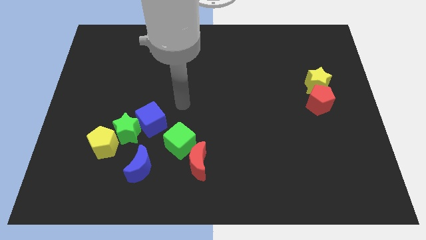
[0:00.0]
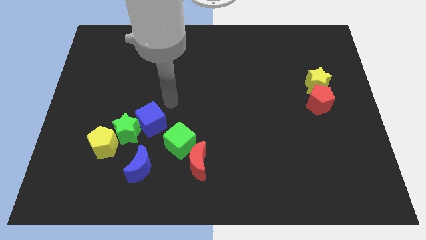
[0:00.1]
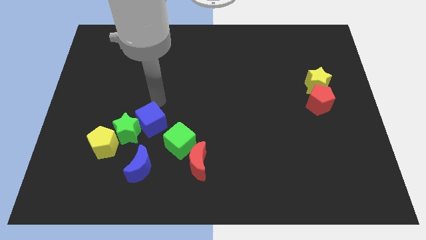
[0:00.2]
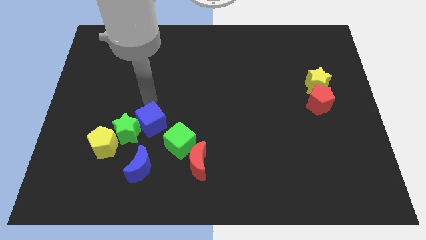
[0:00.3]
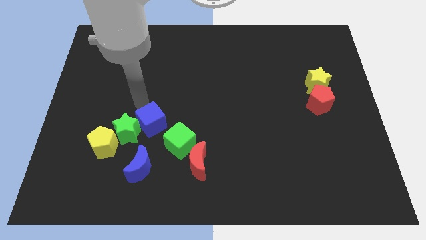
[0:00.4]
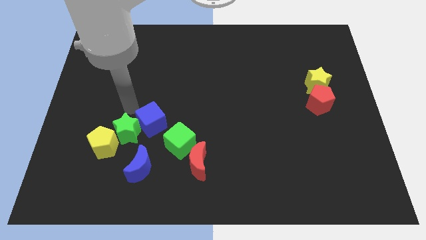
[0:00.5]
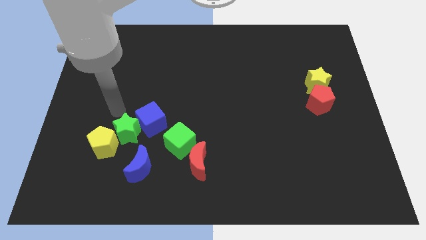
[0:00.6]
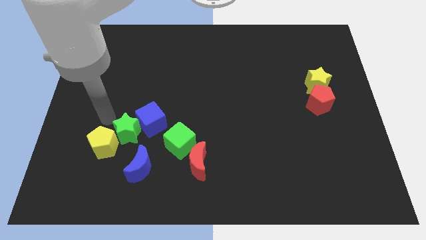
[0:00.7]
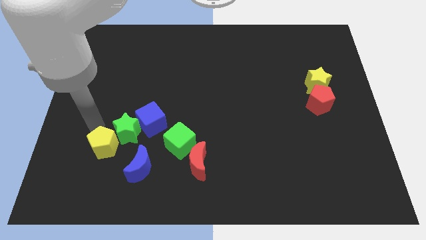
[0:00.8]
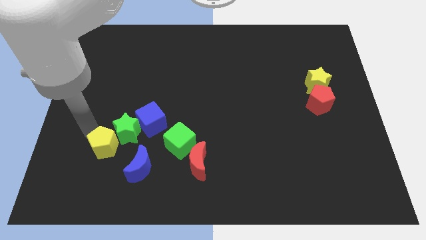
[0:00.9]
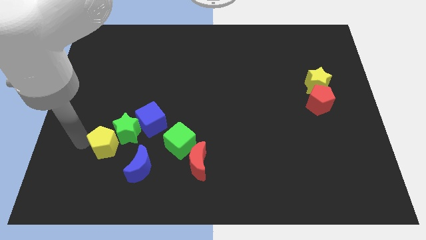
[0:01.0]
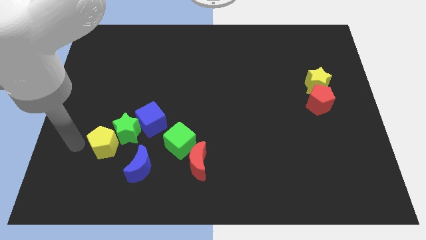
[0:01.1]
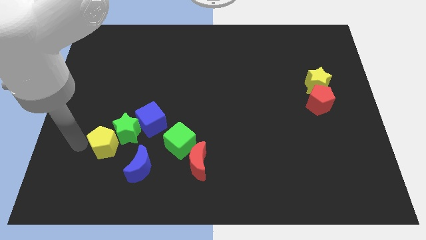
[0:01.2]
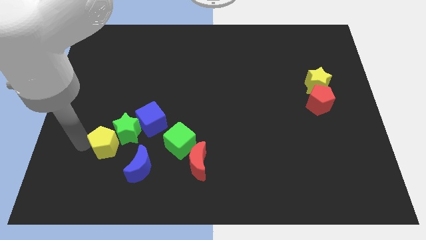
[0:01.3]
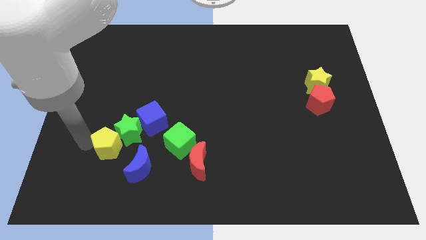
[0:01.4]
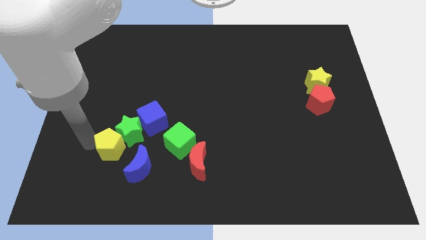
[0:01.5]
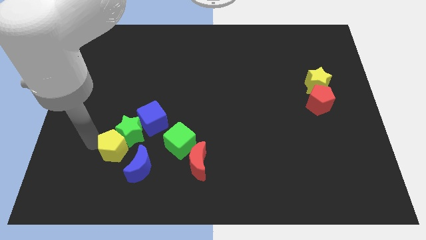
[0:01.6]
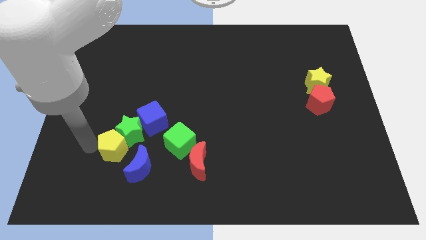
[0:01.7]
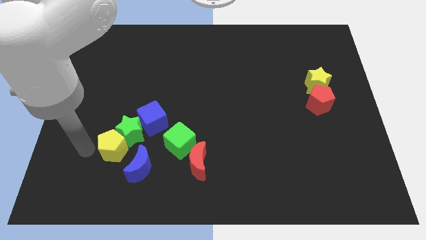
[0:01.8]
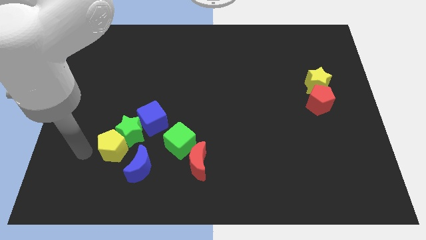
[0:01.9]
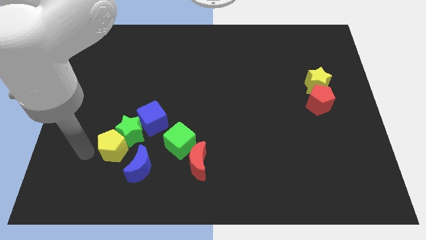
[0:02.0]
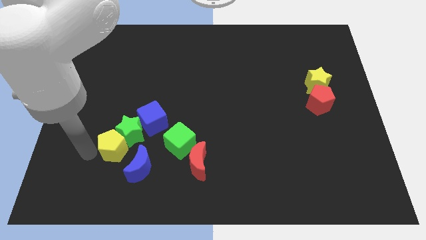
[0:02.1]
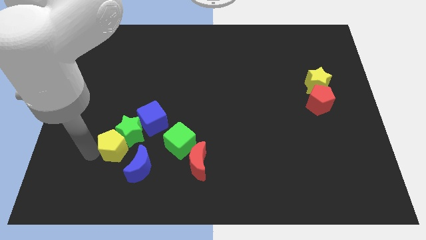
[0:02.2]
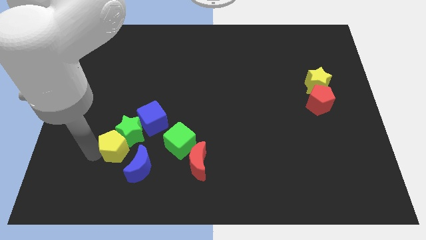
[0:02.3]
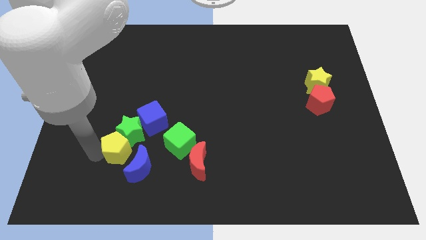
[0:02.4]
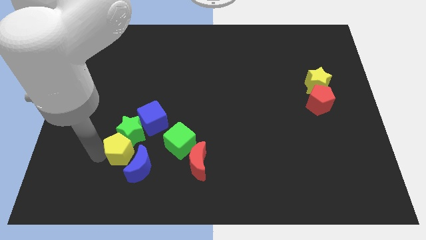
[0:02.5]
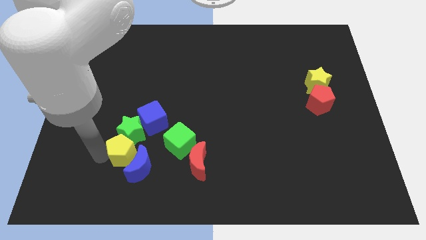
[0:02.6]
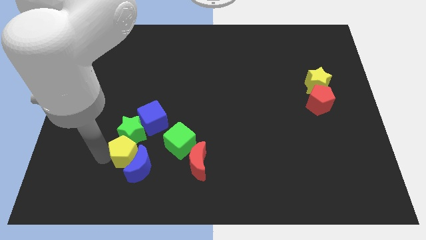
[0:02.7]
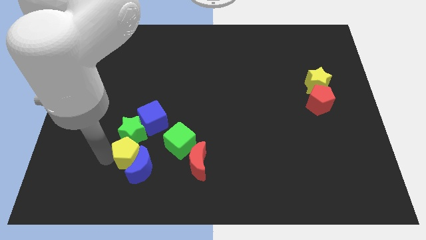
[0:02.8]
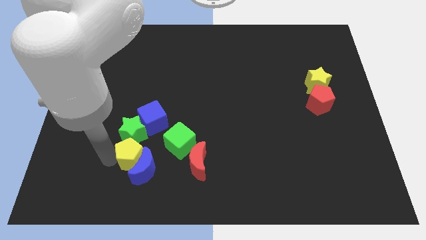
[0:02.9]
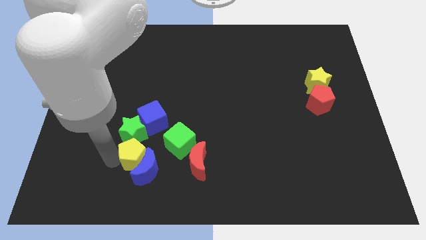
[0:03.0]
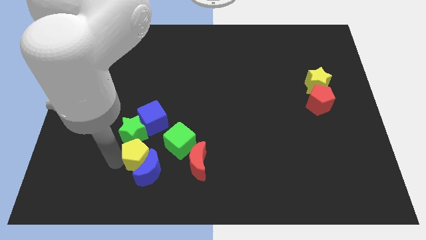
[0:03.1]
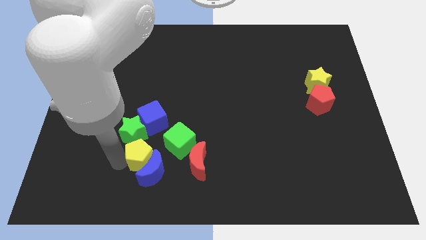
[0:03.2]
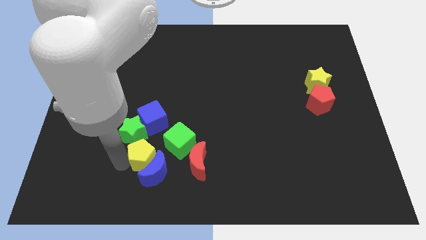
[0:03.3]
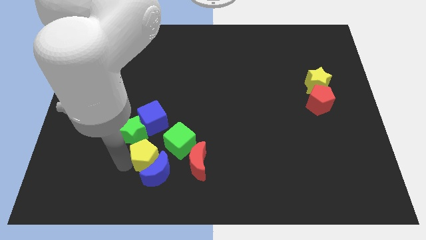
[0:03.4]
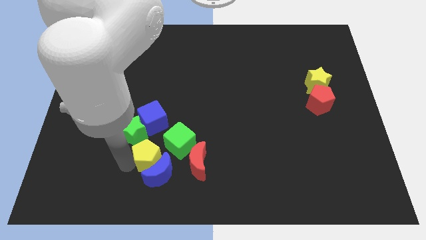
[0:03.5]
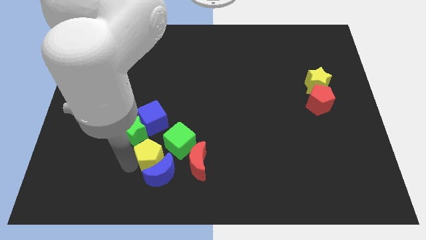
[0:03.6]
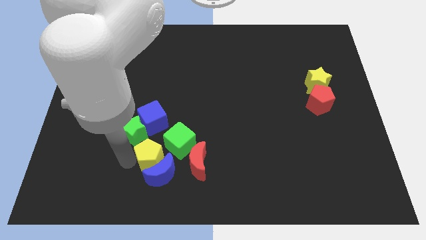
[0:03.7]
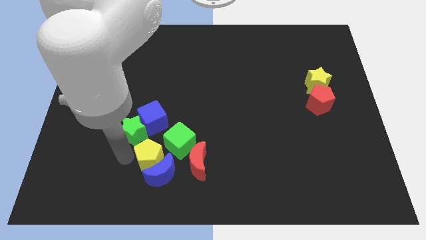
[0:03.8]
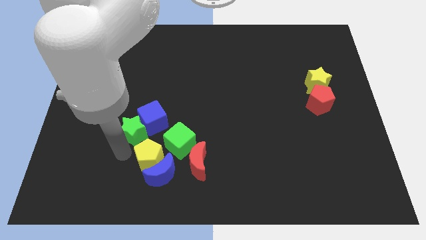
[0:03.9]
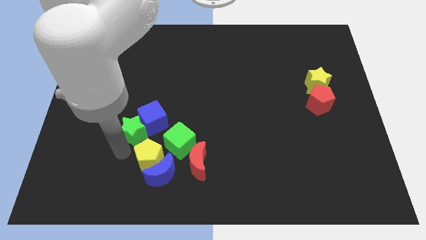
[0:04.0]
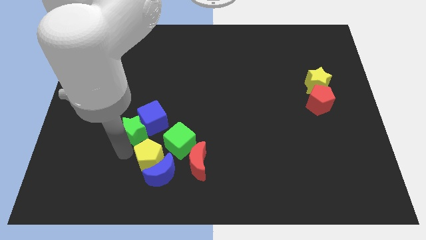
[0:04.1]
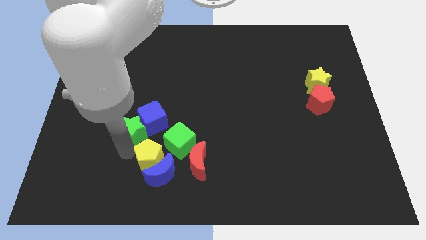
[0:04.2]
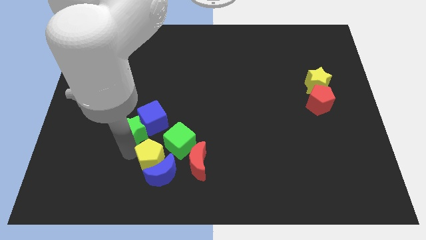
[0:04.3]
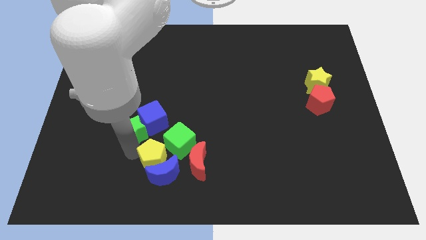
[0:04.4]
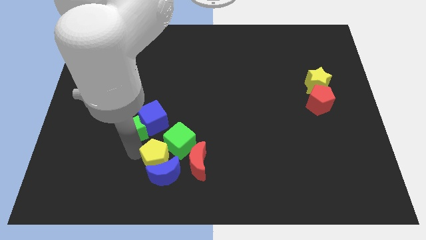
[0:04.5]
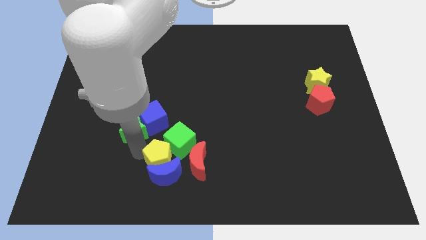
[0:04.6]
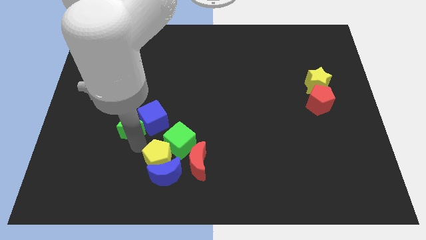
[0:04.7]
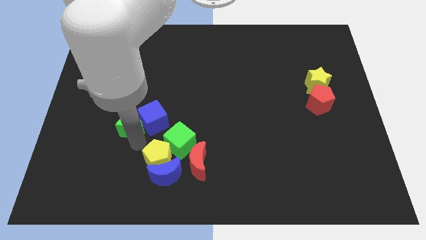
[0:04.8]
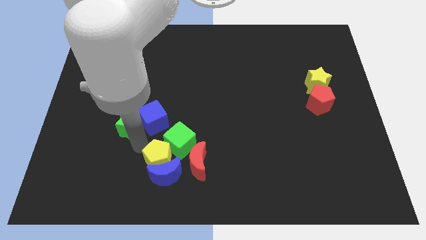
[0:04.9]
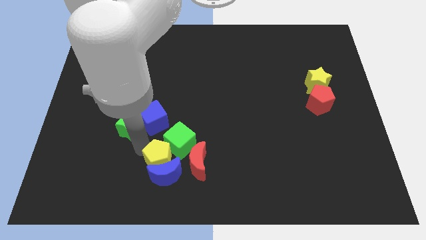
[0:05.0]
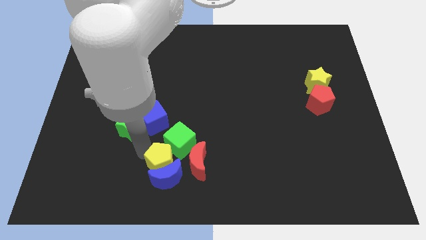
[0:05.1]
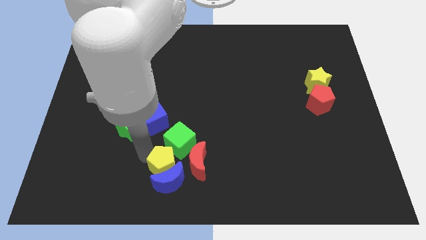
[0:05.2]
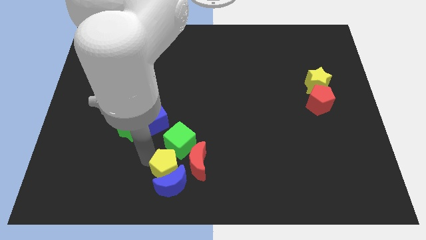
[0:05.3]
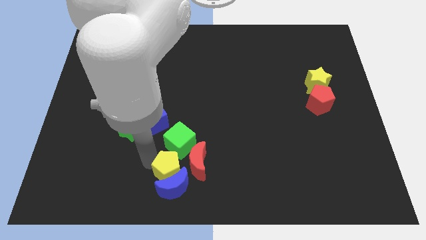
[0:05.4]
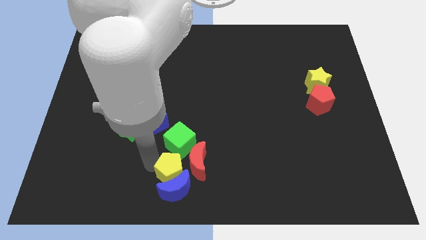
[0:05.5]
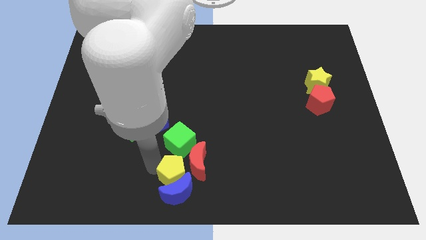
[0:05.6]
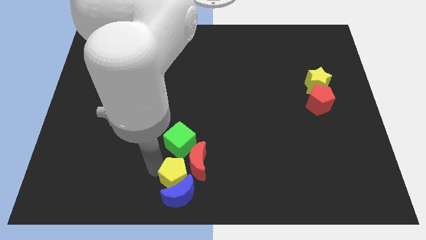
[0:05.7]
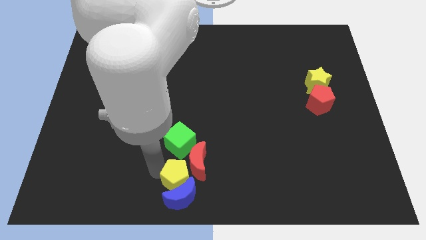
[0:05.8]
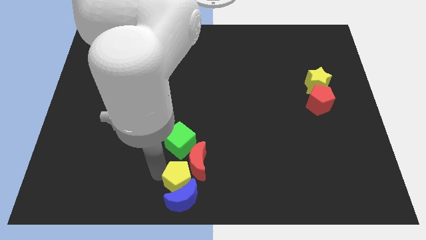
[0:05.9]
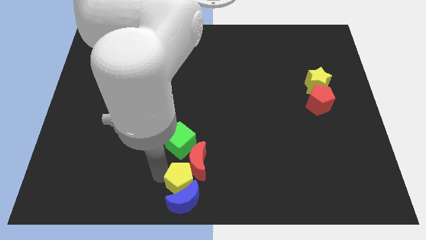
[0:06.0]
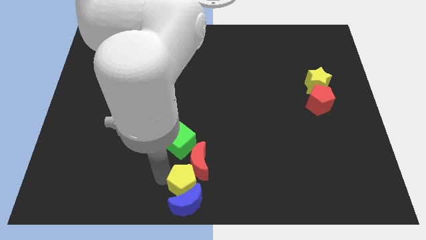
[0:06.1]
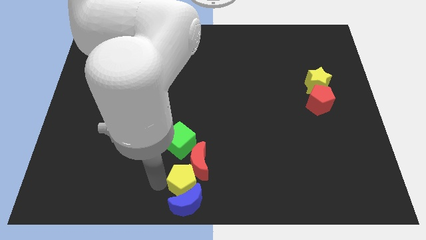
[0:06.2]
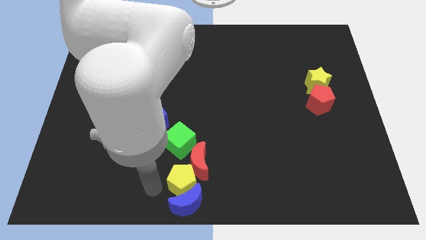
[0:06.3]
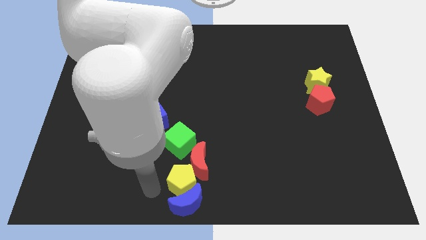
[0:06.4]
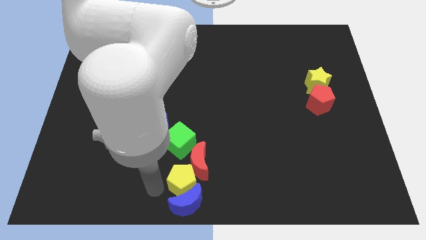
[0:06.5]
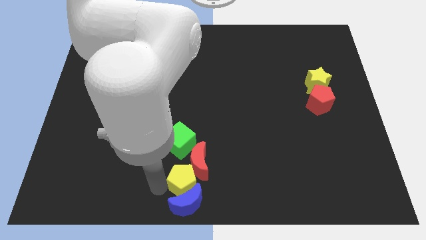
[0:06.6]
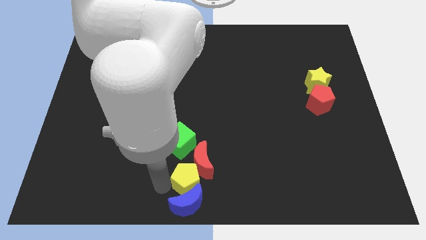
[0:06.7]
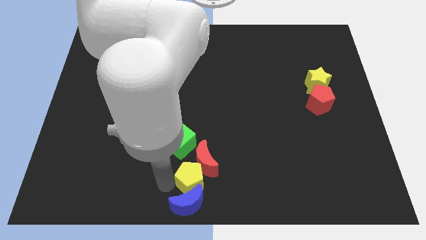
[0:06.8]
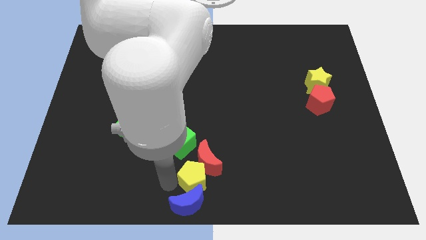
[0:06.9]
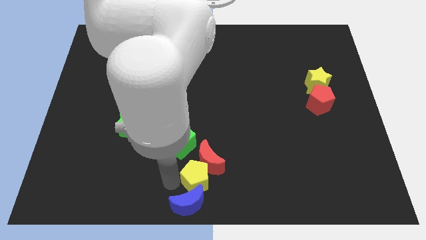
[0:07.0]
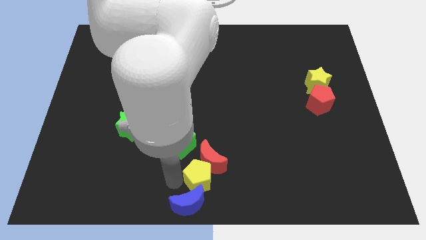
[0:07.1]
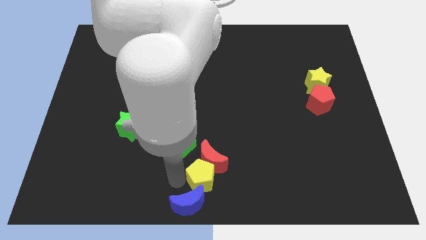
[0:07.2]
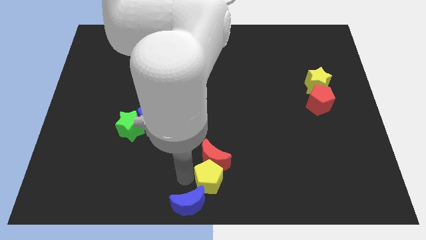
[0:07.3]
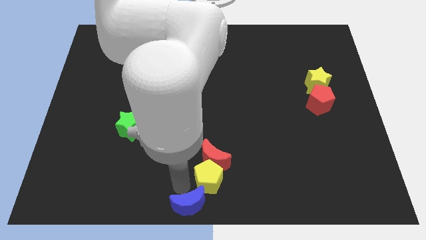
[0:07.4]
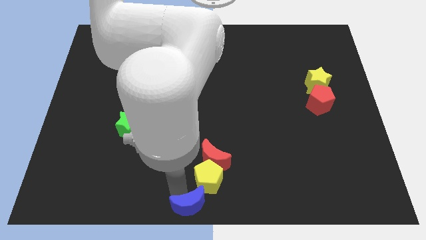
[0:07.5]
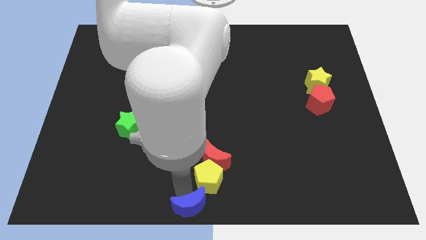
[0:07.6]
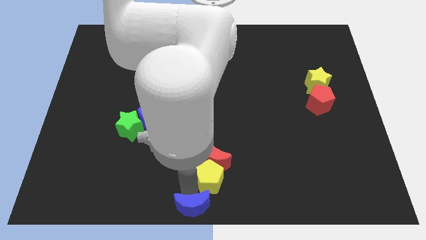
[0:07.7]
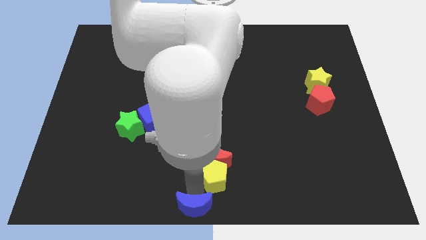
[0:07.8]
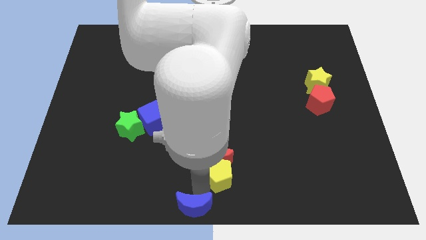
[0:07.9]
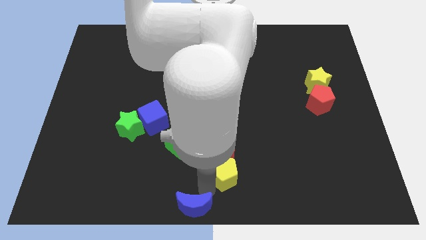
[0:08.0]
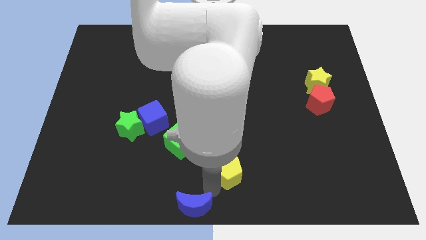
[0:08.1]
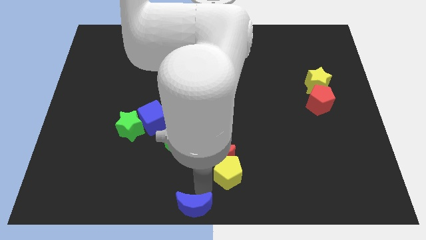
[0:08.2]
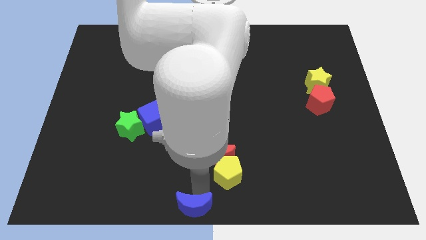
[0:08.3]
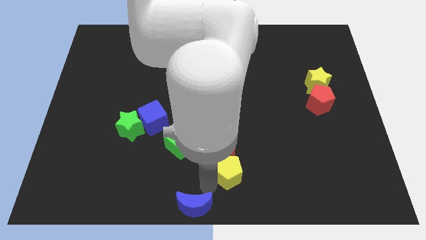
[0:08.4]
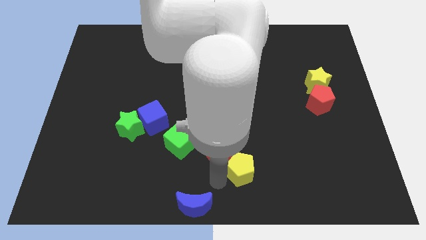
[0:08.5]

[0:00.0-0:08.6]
push the yellow pentagon to the right side of the red moon
